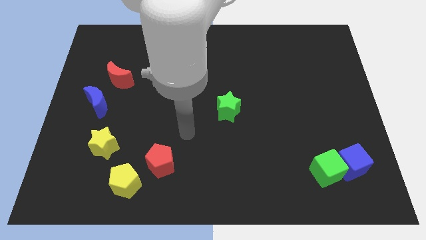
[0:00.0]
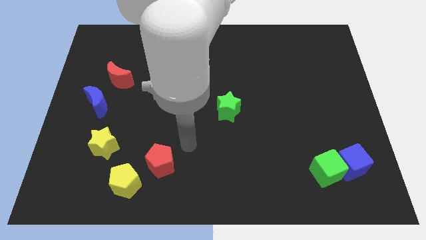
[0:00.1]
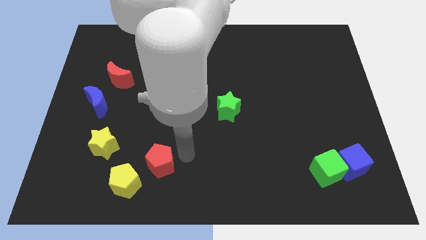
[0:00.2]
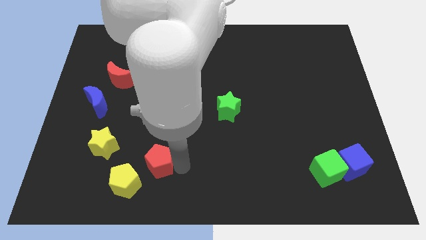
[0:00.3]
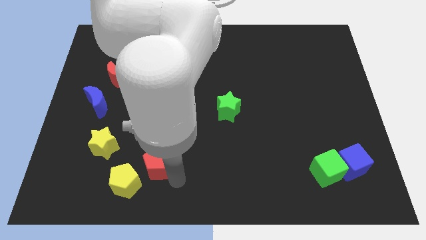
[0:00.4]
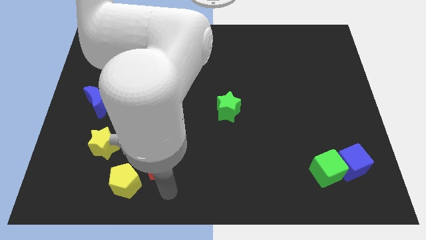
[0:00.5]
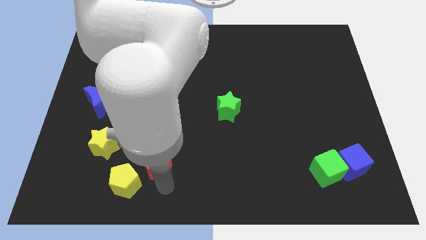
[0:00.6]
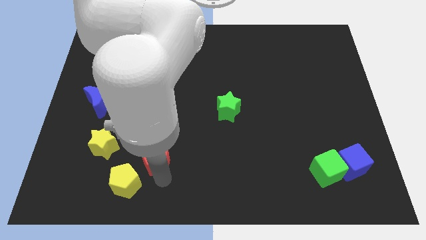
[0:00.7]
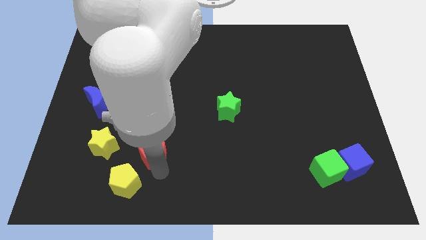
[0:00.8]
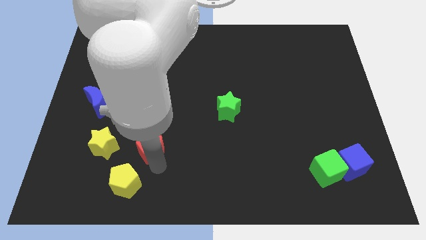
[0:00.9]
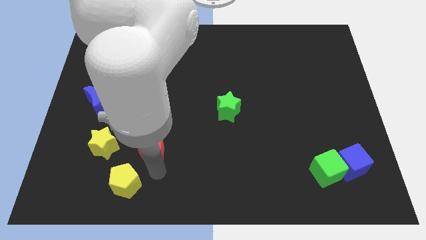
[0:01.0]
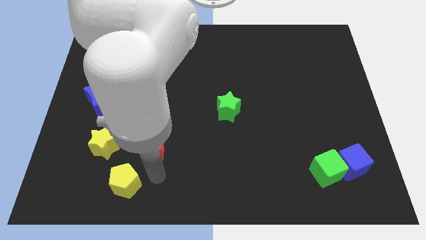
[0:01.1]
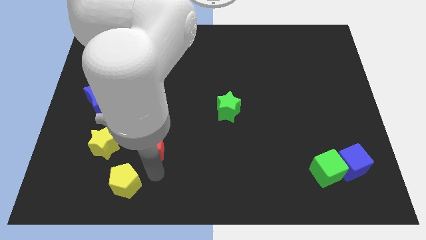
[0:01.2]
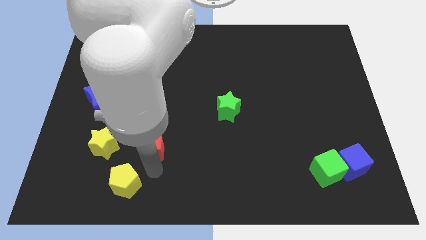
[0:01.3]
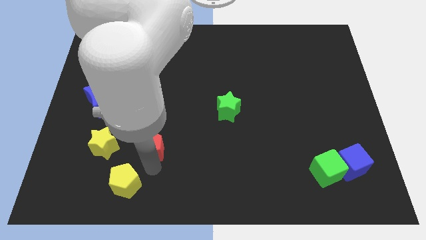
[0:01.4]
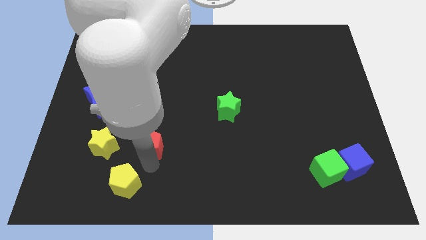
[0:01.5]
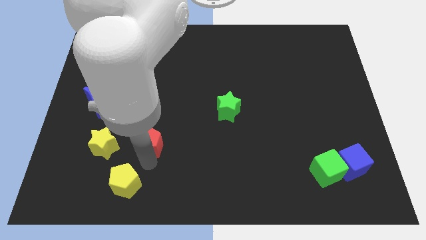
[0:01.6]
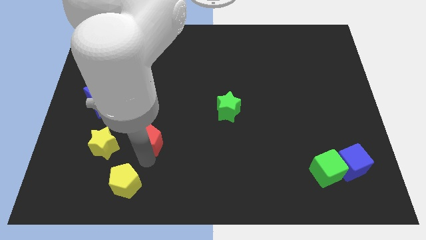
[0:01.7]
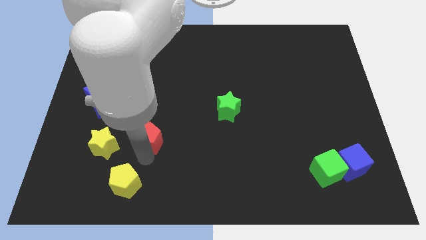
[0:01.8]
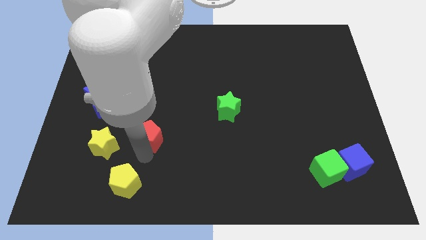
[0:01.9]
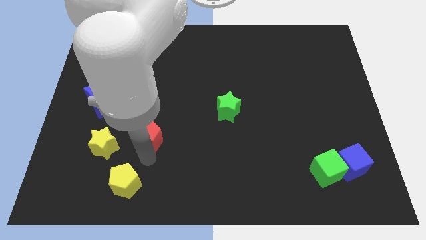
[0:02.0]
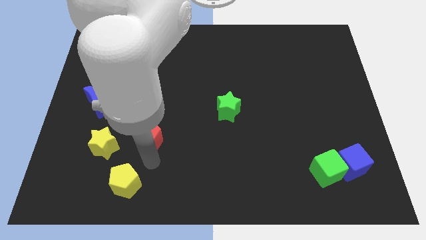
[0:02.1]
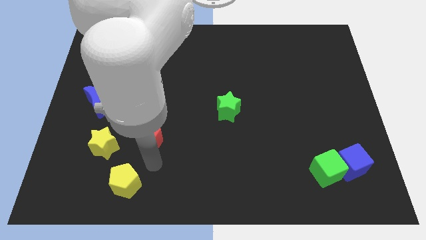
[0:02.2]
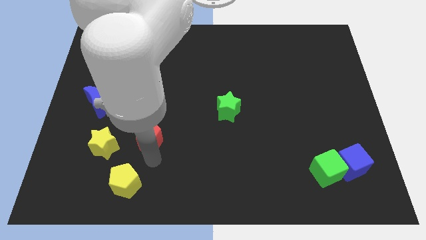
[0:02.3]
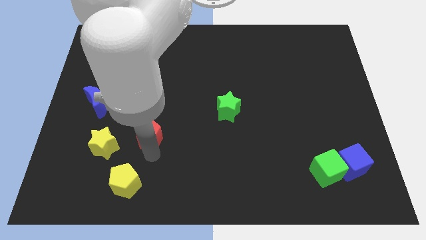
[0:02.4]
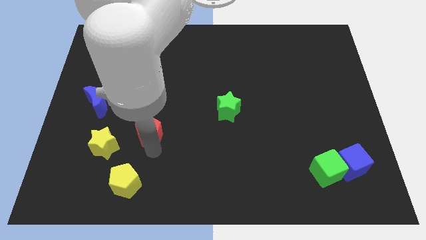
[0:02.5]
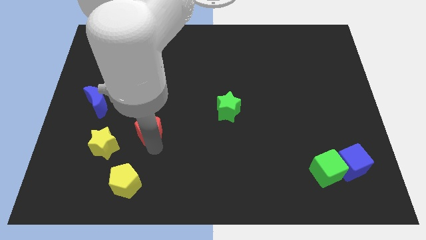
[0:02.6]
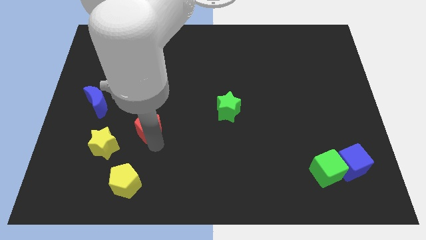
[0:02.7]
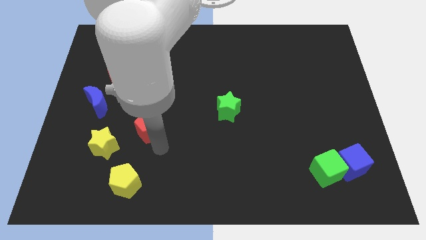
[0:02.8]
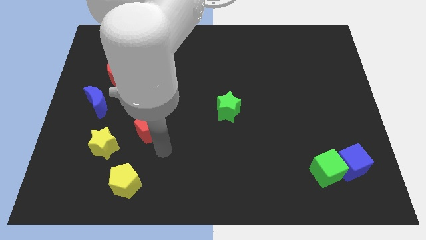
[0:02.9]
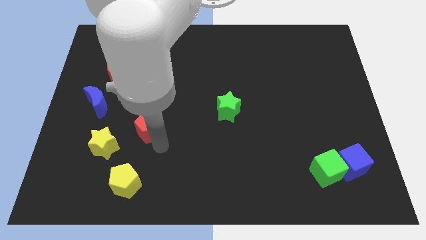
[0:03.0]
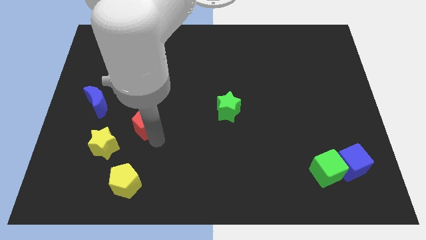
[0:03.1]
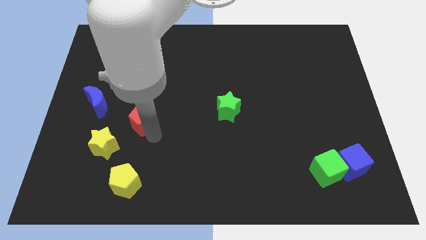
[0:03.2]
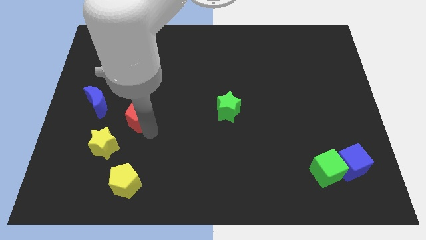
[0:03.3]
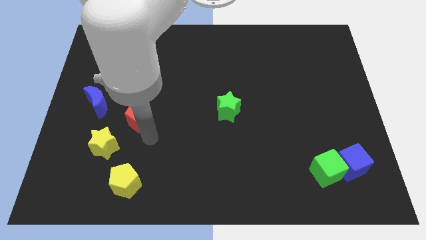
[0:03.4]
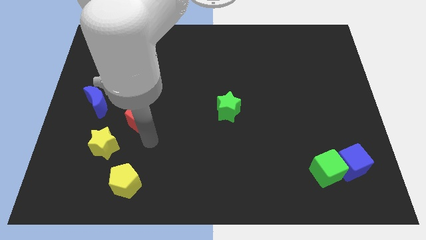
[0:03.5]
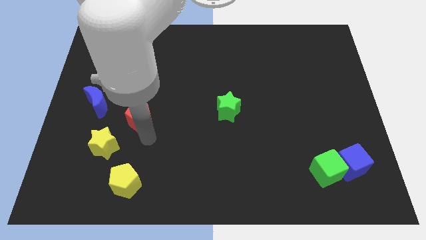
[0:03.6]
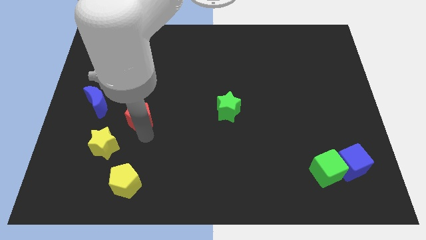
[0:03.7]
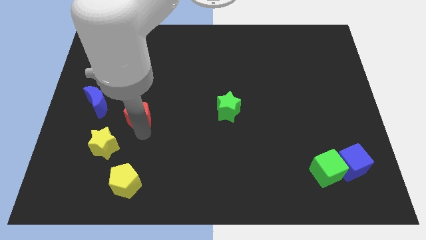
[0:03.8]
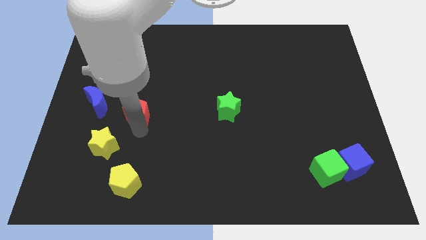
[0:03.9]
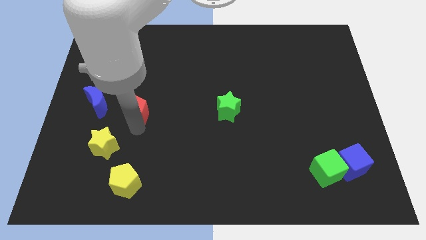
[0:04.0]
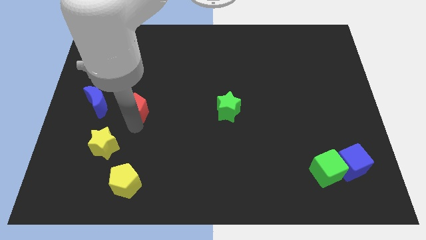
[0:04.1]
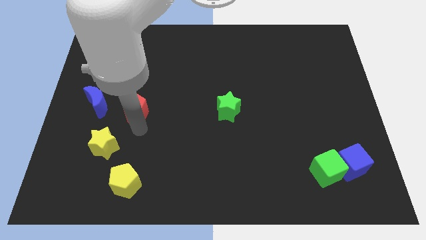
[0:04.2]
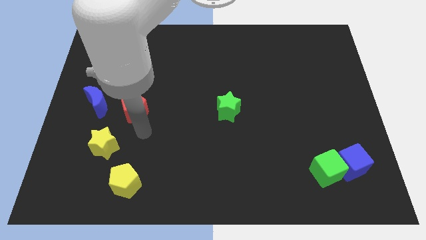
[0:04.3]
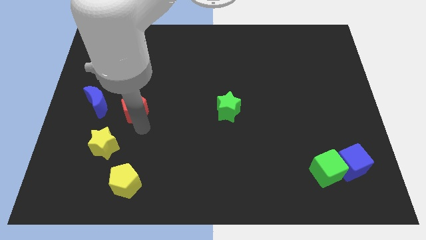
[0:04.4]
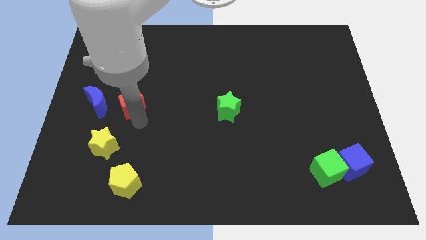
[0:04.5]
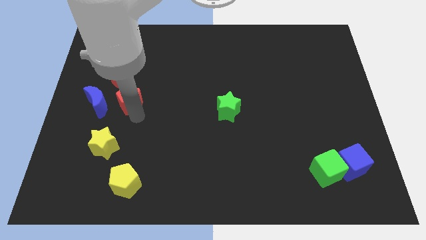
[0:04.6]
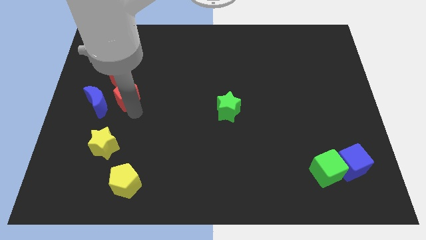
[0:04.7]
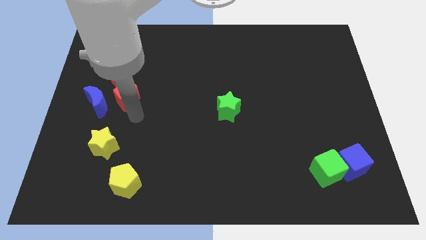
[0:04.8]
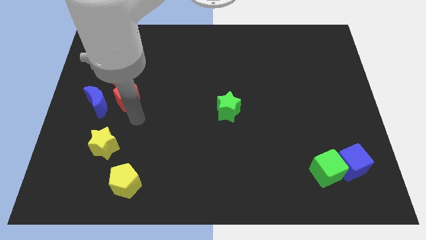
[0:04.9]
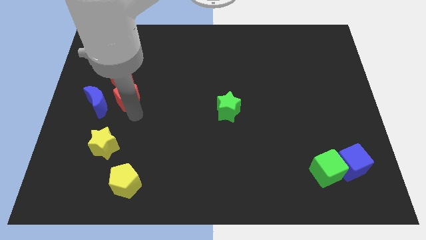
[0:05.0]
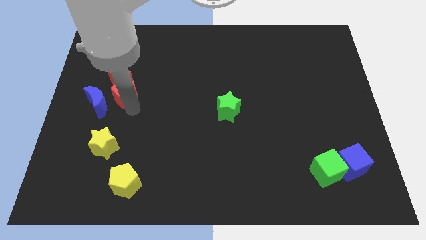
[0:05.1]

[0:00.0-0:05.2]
slide the red pentagon to the red moon

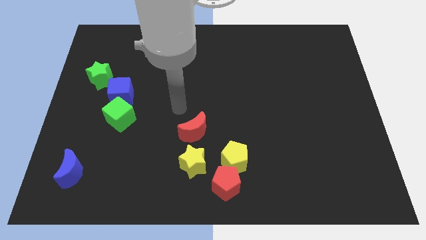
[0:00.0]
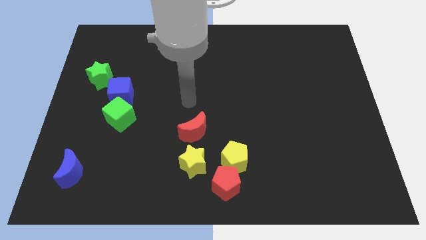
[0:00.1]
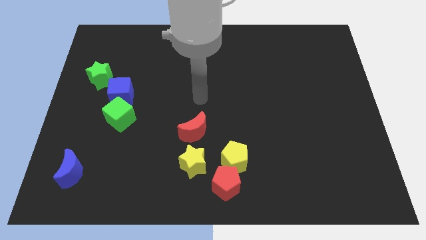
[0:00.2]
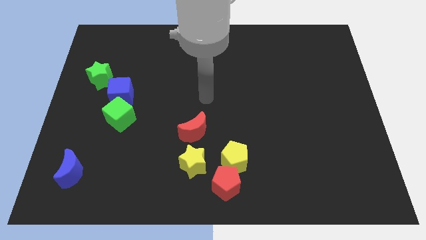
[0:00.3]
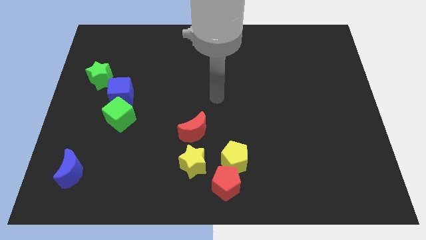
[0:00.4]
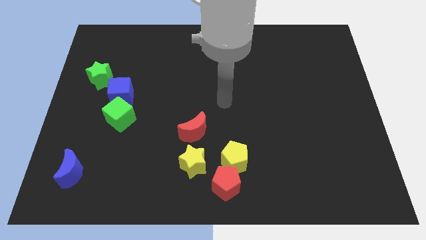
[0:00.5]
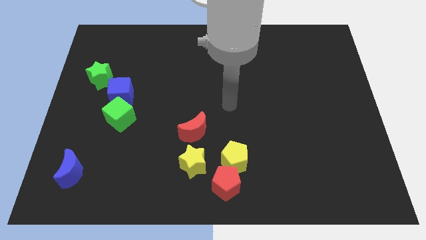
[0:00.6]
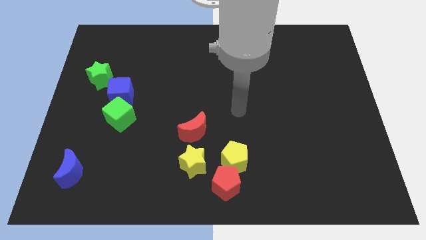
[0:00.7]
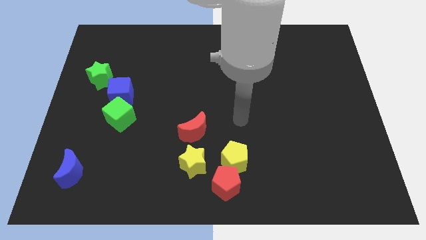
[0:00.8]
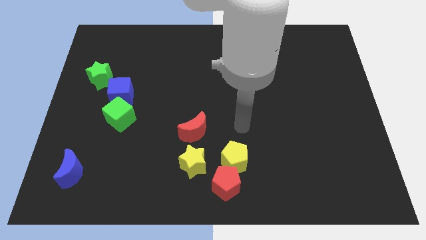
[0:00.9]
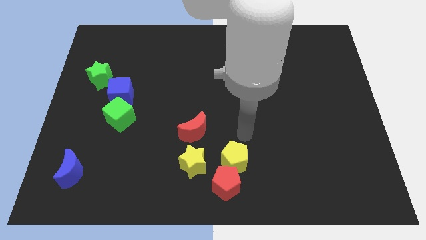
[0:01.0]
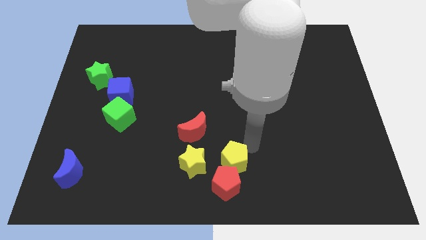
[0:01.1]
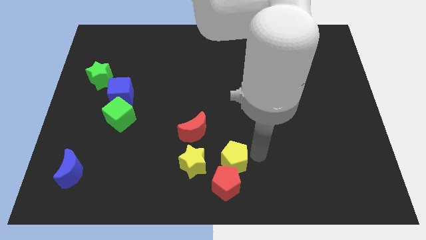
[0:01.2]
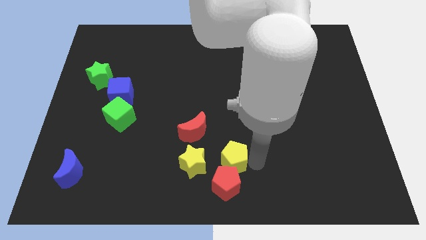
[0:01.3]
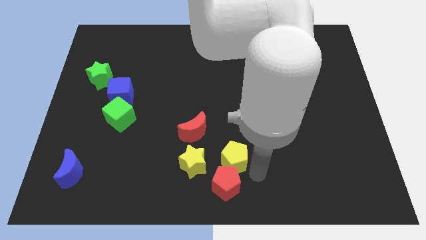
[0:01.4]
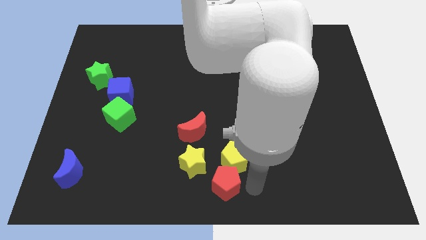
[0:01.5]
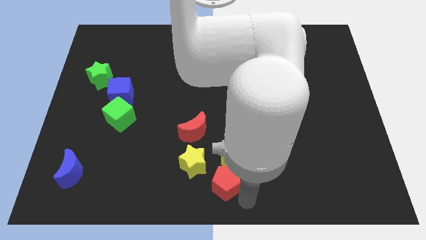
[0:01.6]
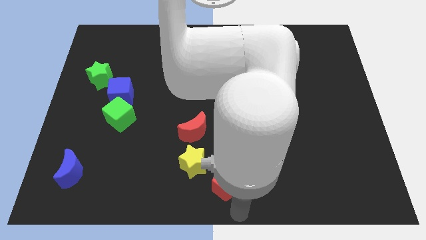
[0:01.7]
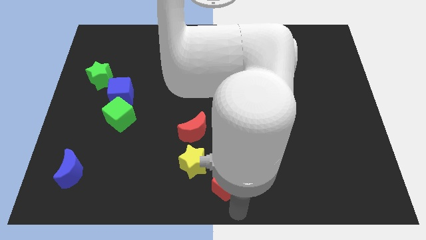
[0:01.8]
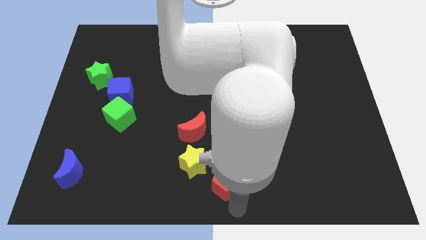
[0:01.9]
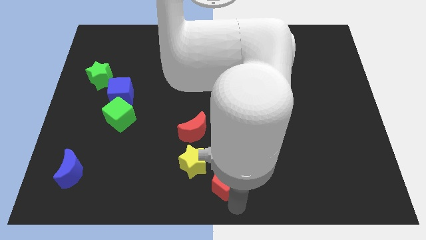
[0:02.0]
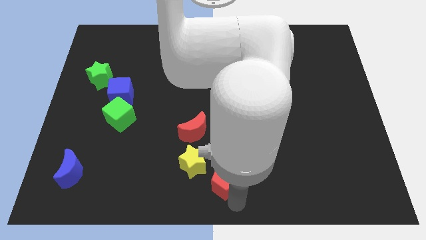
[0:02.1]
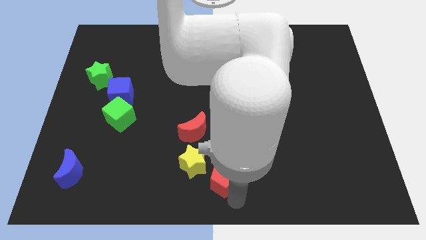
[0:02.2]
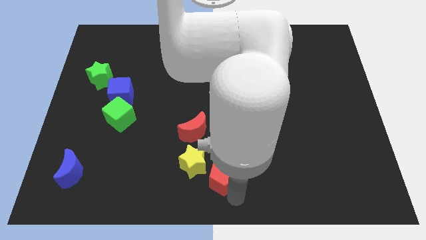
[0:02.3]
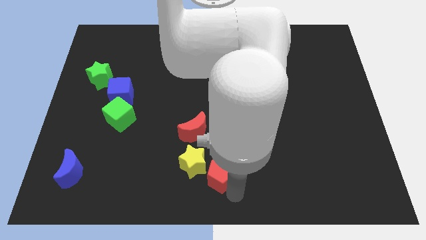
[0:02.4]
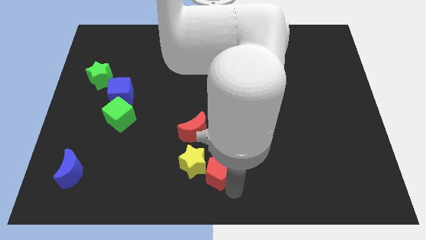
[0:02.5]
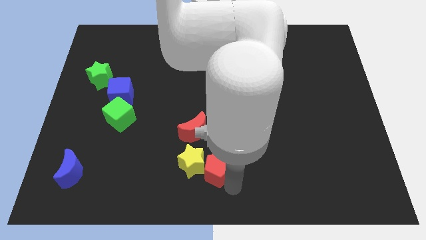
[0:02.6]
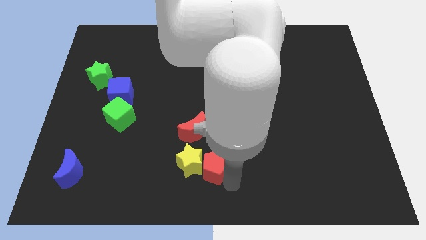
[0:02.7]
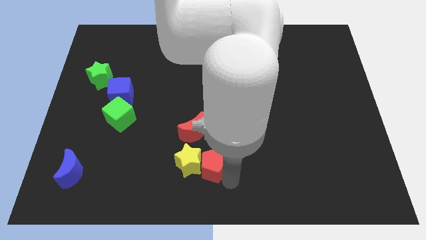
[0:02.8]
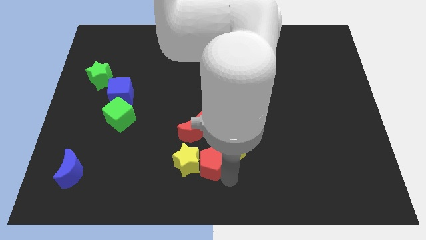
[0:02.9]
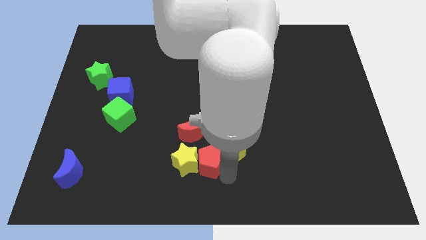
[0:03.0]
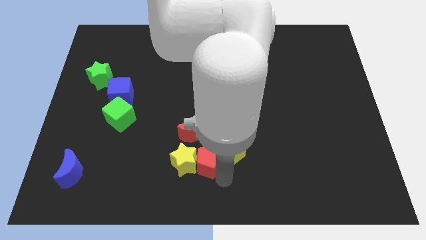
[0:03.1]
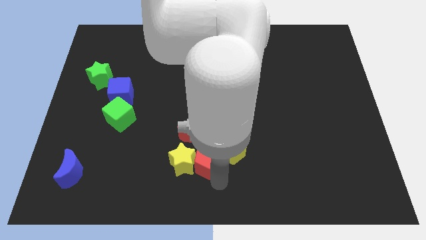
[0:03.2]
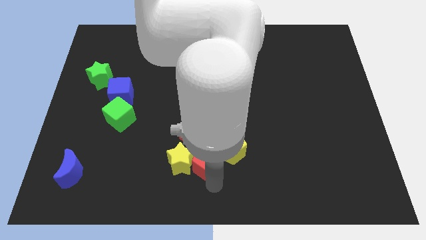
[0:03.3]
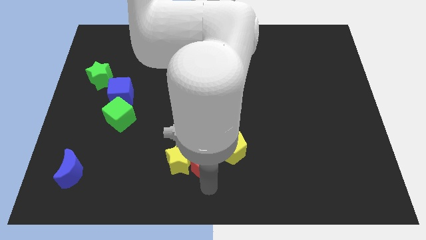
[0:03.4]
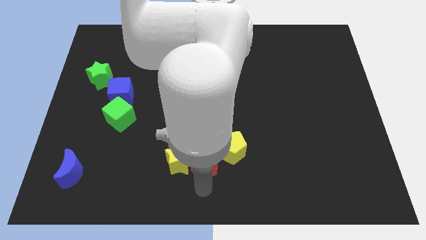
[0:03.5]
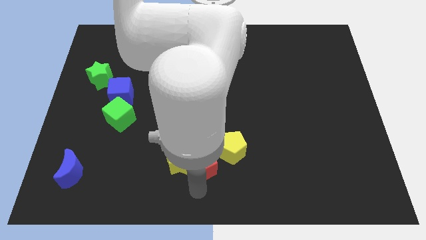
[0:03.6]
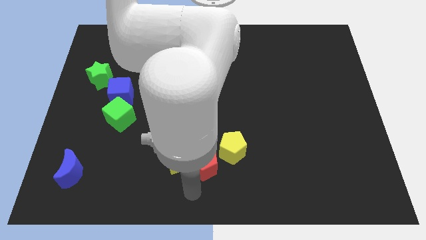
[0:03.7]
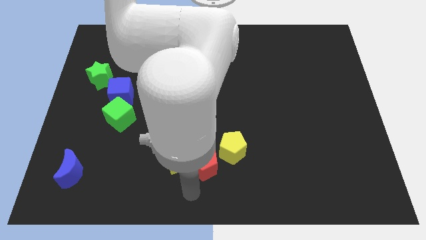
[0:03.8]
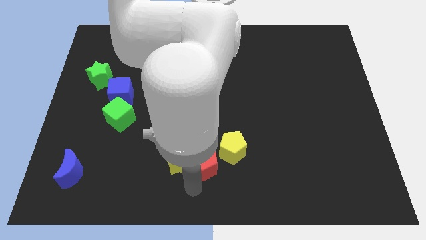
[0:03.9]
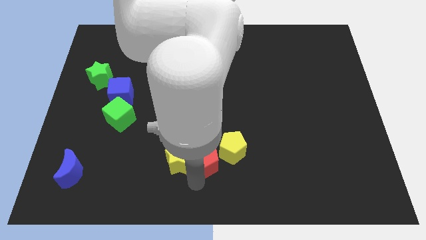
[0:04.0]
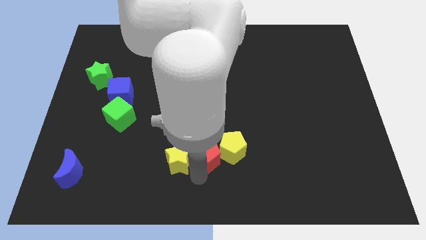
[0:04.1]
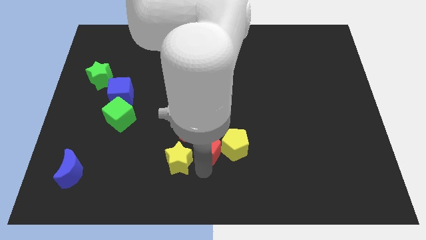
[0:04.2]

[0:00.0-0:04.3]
slide the red pentagon next to the red moon
